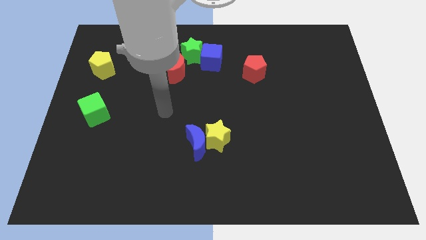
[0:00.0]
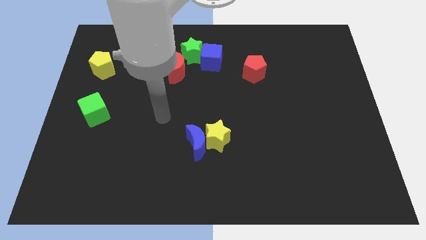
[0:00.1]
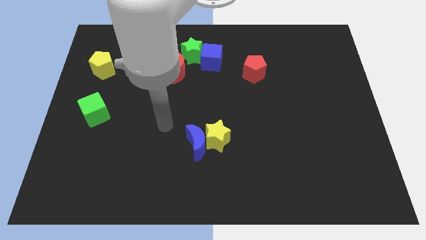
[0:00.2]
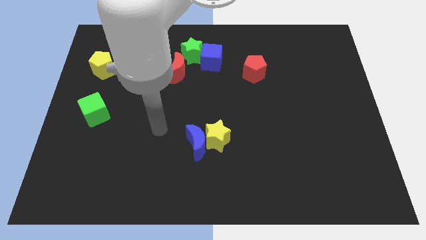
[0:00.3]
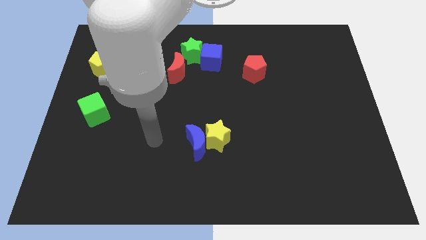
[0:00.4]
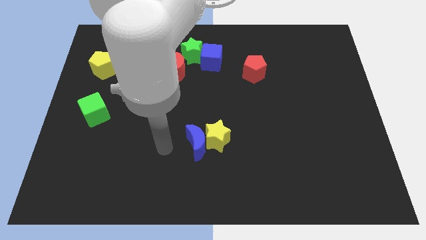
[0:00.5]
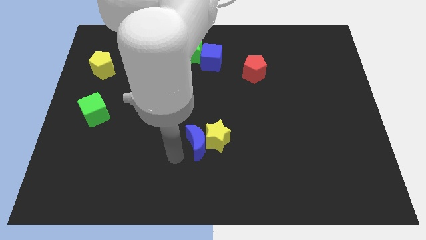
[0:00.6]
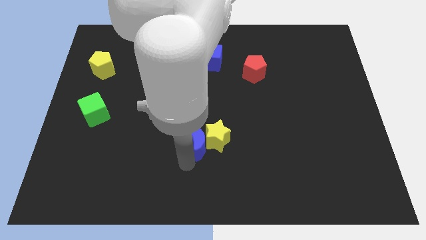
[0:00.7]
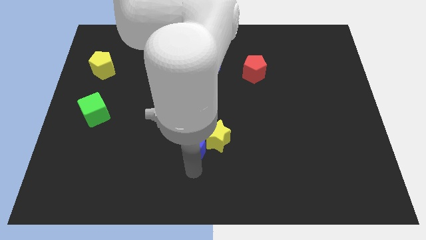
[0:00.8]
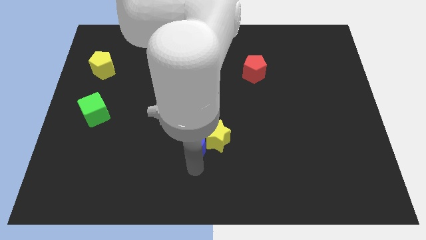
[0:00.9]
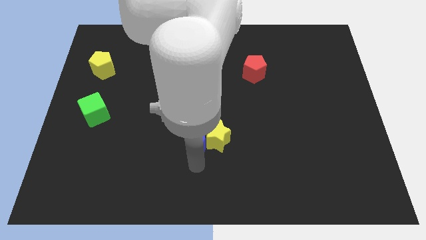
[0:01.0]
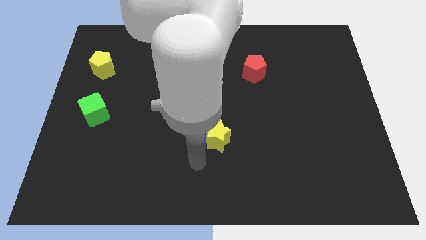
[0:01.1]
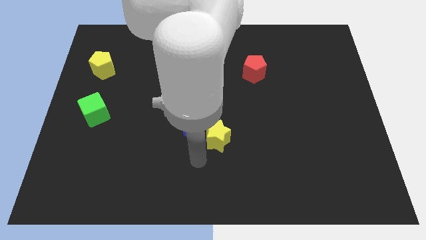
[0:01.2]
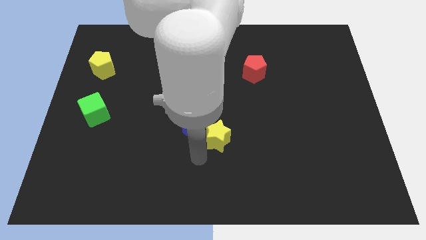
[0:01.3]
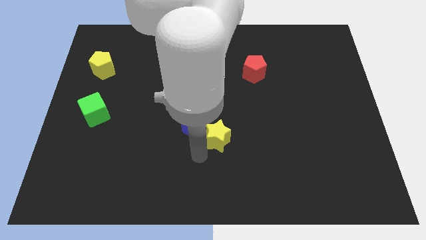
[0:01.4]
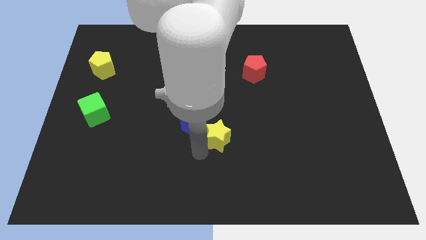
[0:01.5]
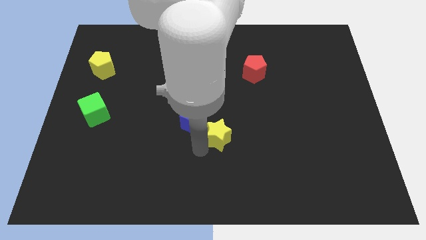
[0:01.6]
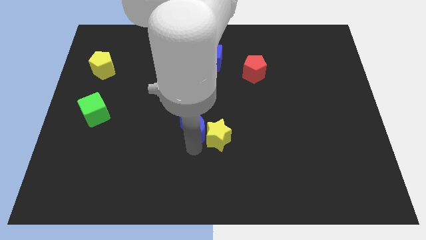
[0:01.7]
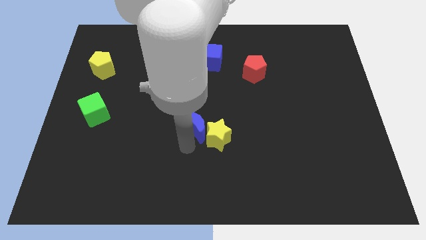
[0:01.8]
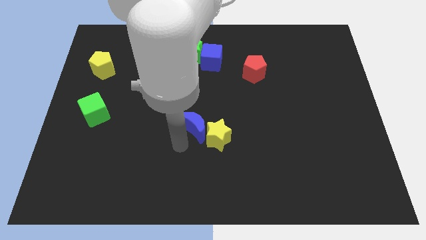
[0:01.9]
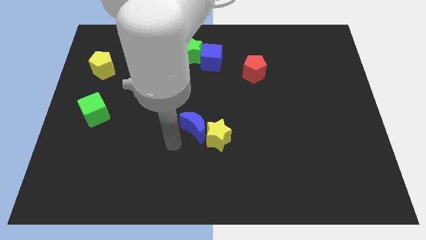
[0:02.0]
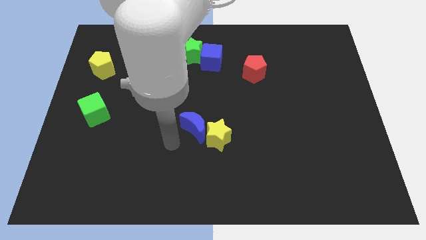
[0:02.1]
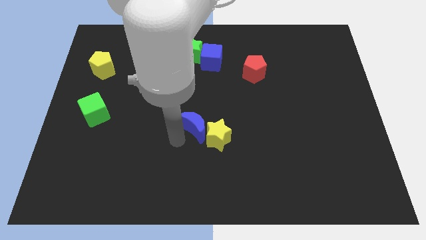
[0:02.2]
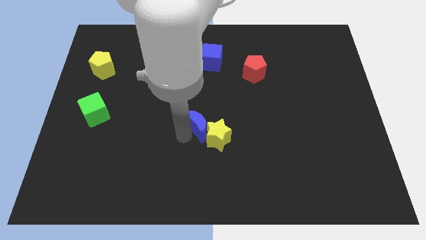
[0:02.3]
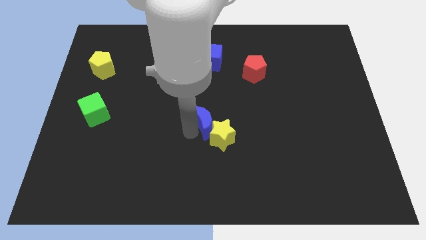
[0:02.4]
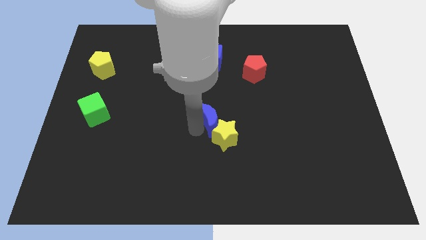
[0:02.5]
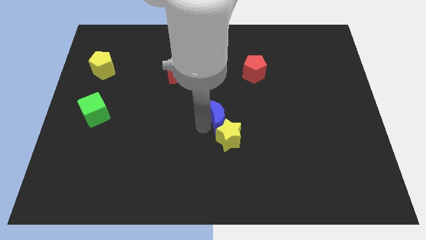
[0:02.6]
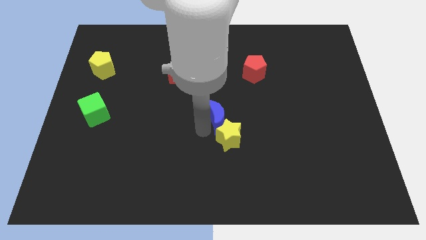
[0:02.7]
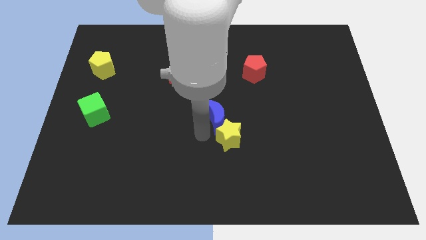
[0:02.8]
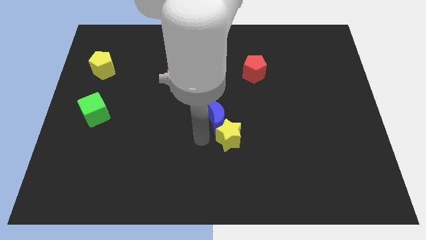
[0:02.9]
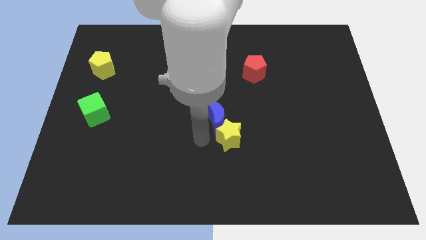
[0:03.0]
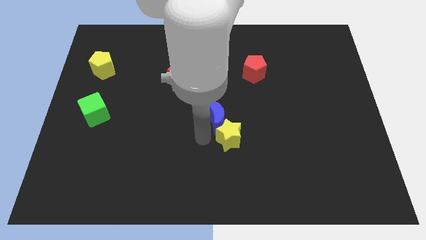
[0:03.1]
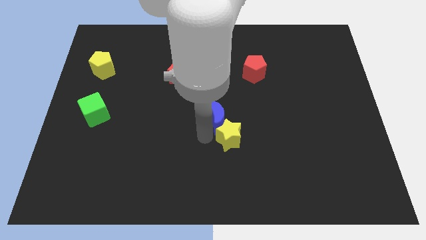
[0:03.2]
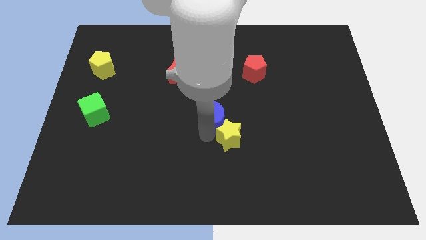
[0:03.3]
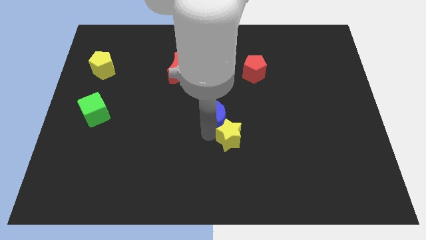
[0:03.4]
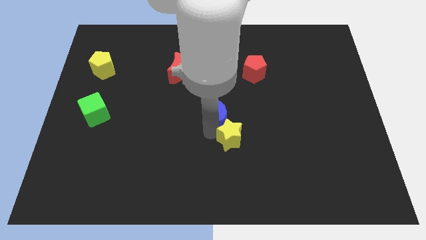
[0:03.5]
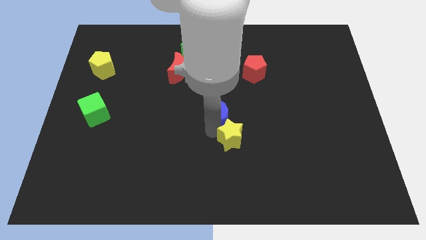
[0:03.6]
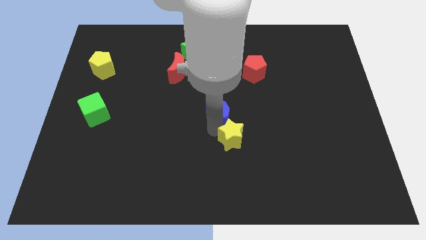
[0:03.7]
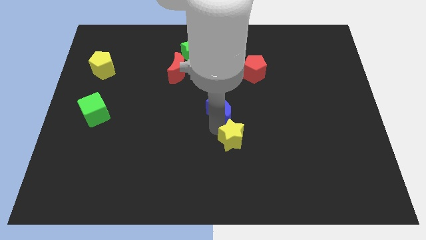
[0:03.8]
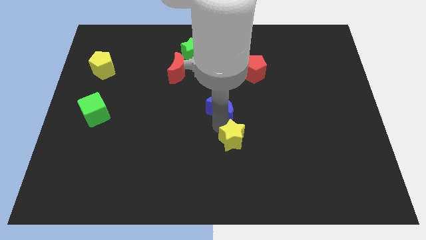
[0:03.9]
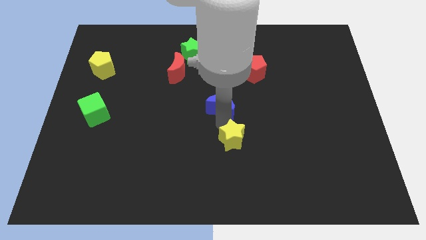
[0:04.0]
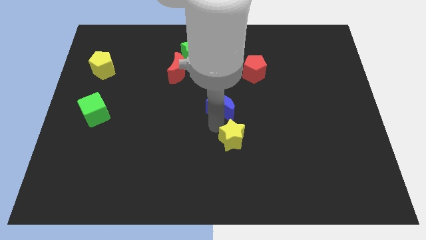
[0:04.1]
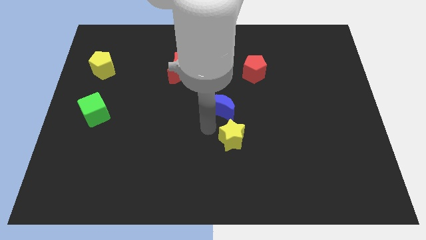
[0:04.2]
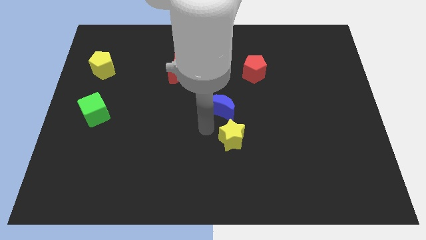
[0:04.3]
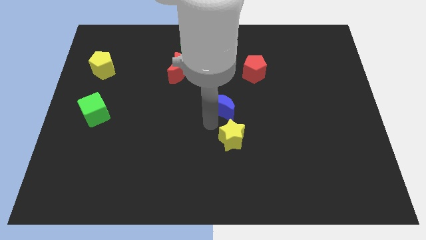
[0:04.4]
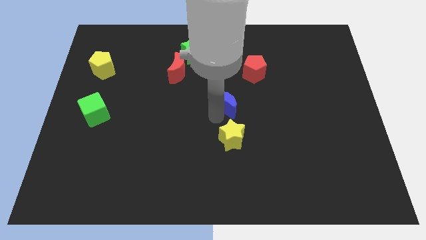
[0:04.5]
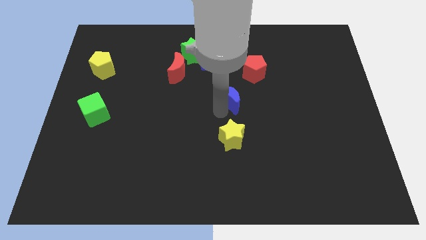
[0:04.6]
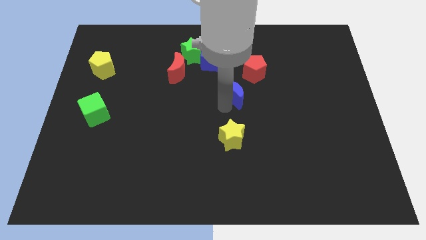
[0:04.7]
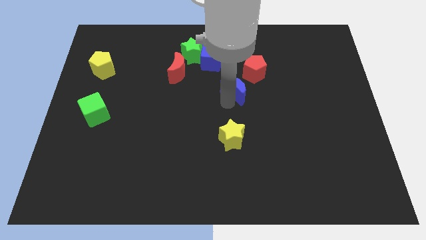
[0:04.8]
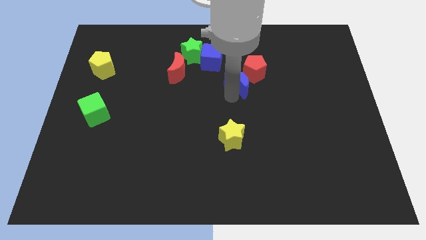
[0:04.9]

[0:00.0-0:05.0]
move the blue moon next to the red pentagon

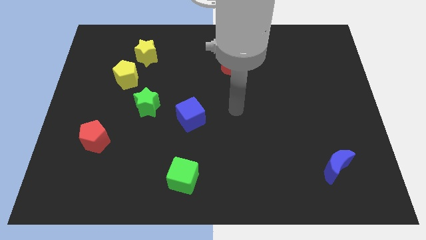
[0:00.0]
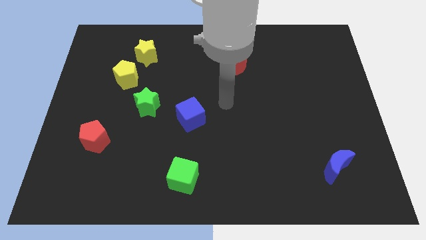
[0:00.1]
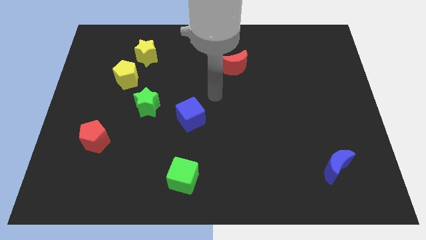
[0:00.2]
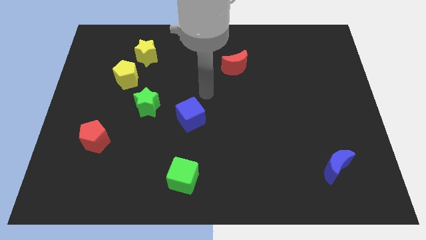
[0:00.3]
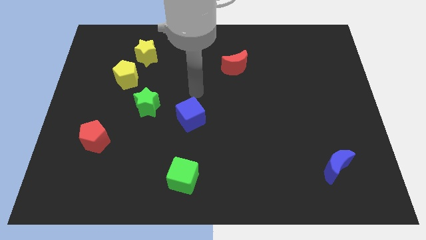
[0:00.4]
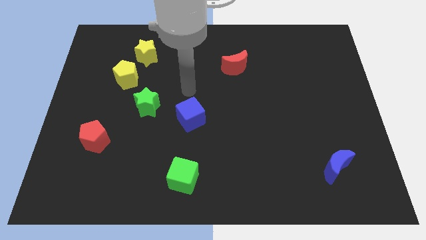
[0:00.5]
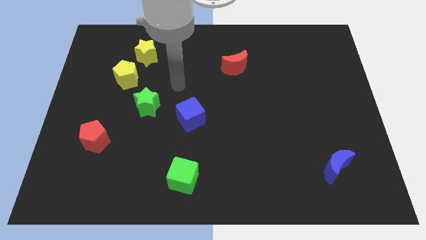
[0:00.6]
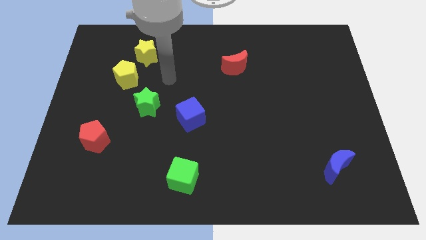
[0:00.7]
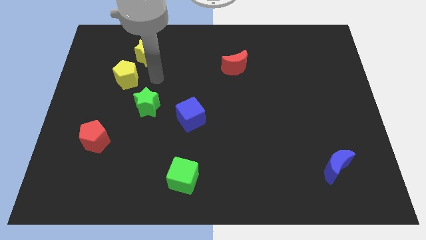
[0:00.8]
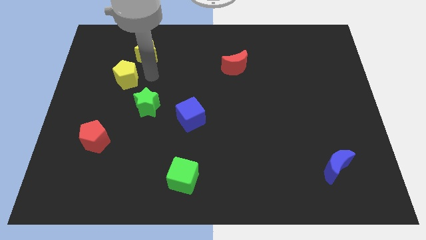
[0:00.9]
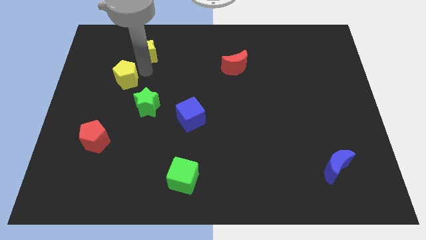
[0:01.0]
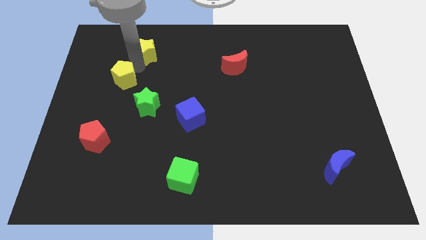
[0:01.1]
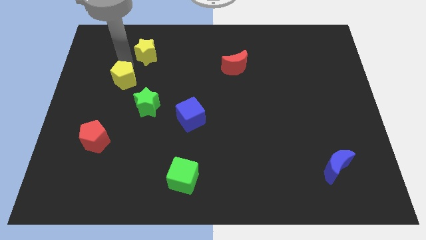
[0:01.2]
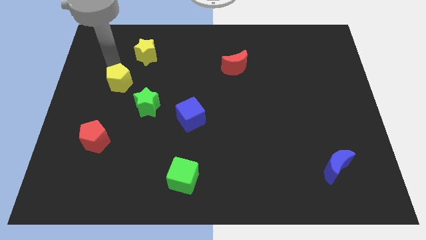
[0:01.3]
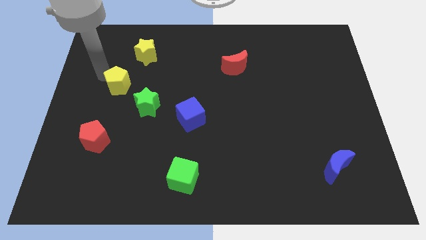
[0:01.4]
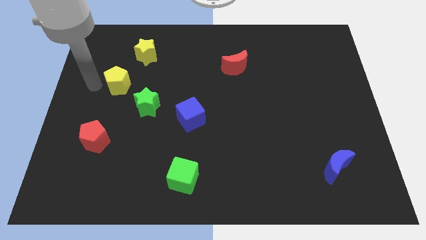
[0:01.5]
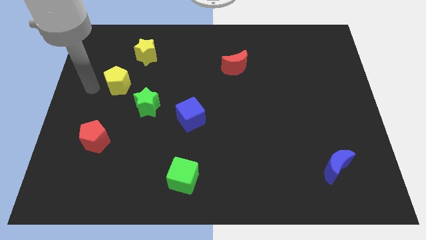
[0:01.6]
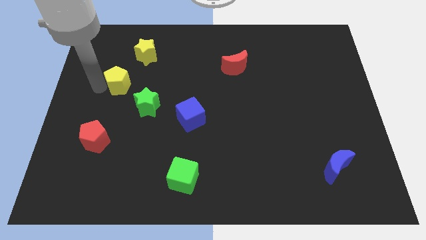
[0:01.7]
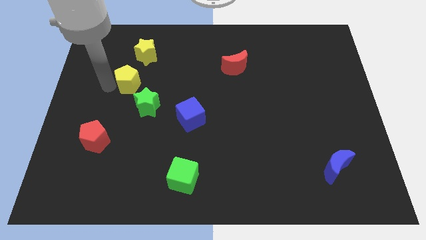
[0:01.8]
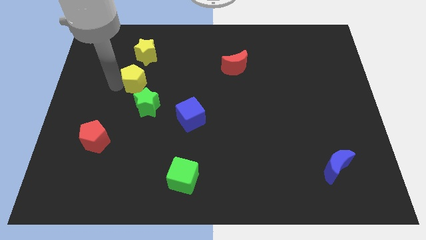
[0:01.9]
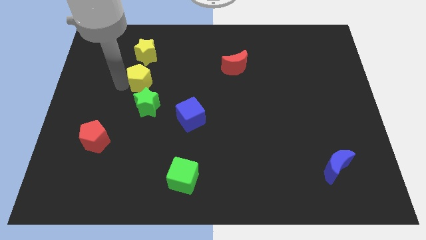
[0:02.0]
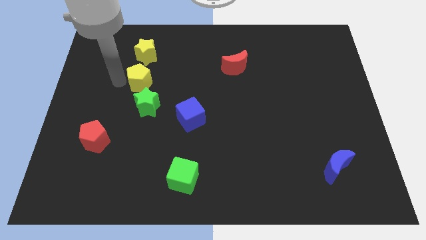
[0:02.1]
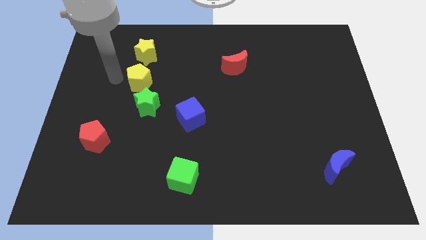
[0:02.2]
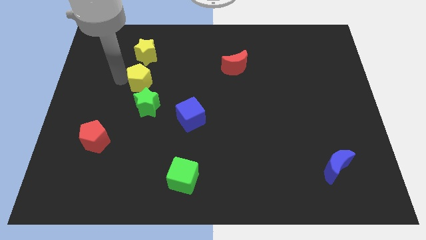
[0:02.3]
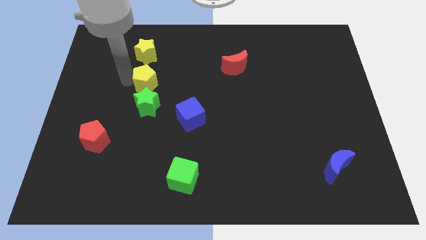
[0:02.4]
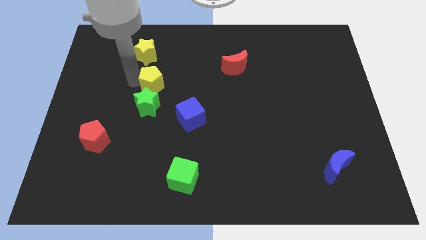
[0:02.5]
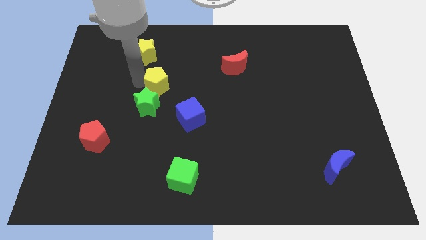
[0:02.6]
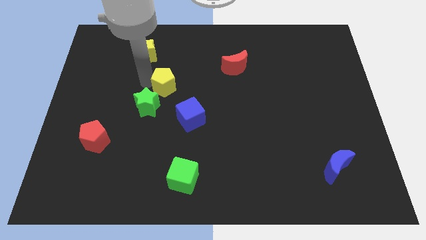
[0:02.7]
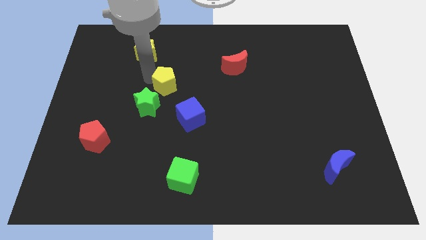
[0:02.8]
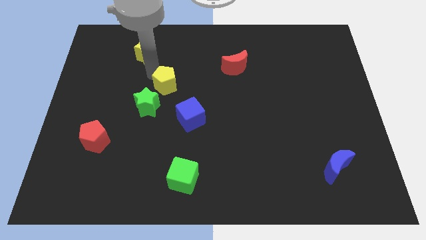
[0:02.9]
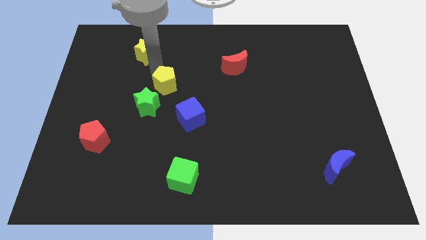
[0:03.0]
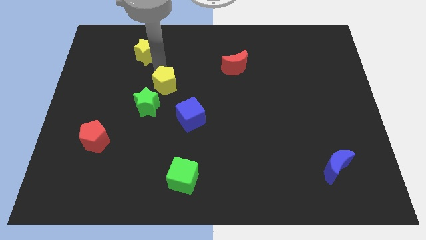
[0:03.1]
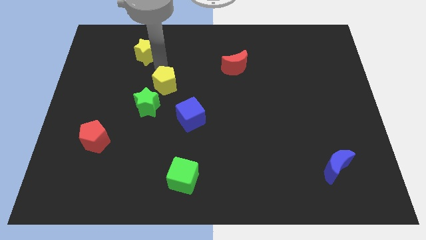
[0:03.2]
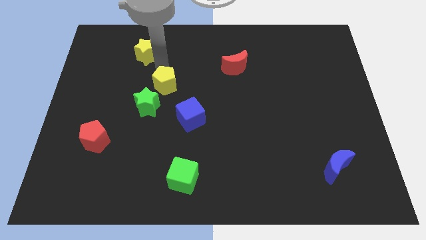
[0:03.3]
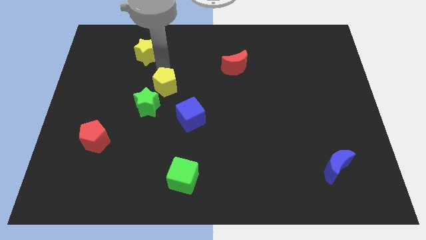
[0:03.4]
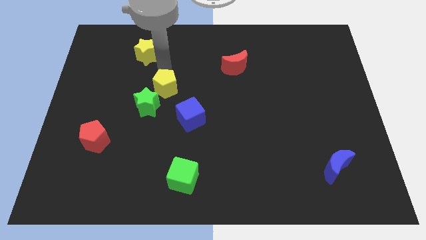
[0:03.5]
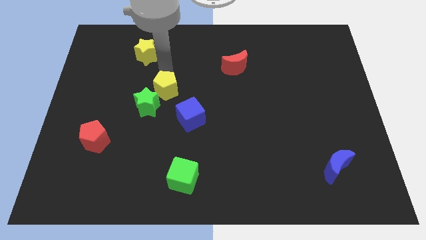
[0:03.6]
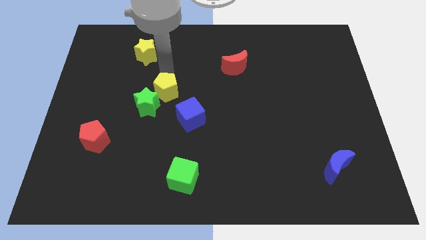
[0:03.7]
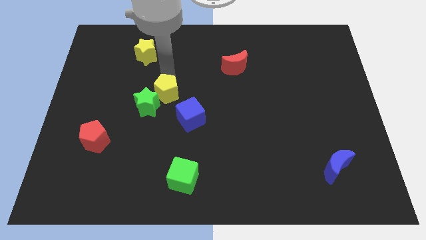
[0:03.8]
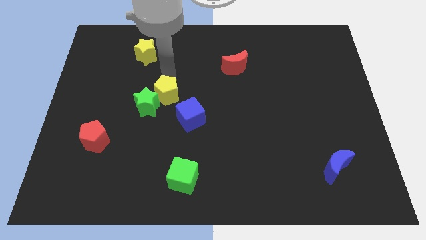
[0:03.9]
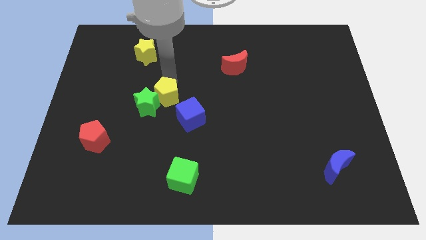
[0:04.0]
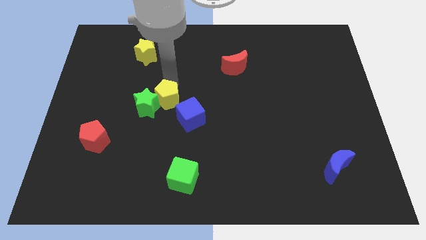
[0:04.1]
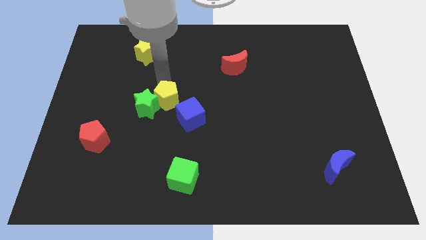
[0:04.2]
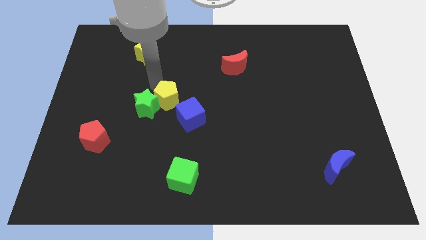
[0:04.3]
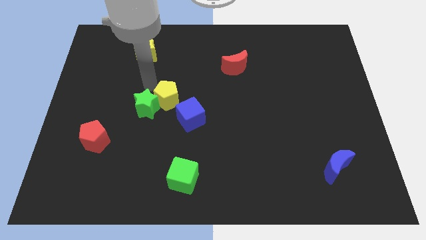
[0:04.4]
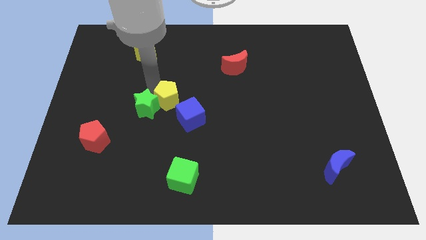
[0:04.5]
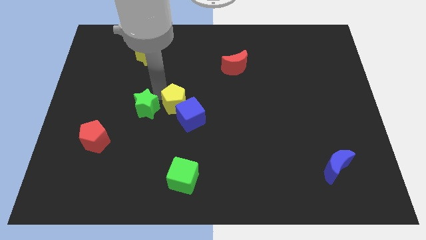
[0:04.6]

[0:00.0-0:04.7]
put the yellow pentagon close to the blue cube
